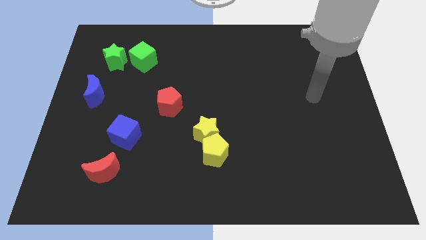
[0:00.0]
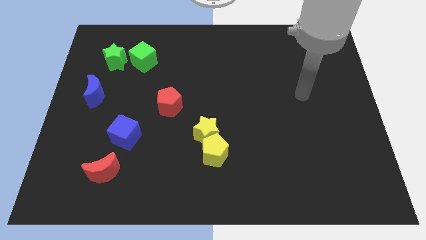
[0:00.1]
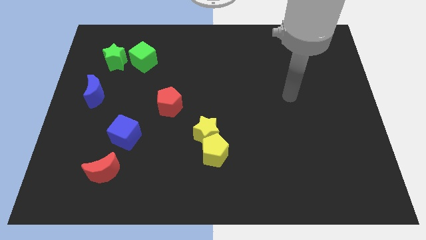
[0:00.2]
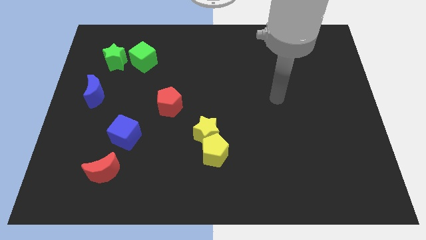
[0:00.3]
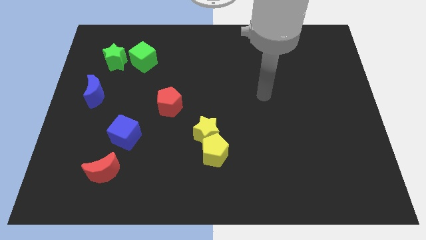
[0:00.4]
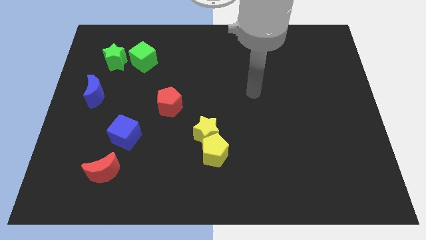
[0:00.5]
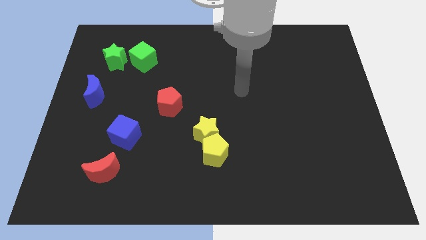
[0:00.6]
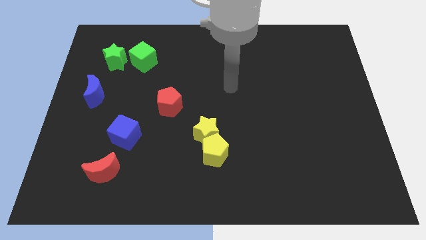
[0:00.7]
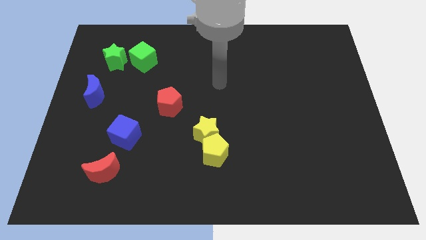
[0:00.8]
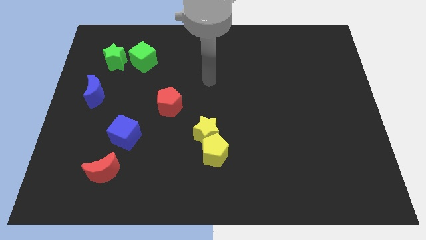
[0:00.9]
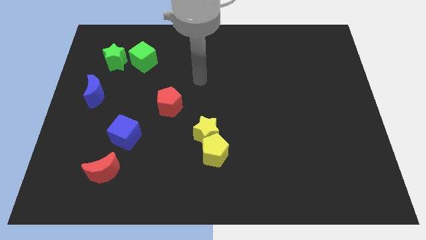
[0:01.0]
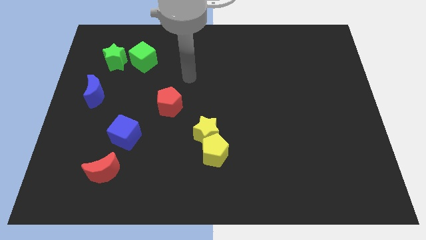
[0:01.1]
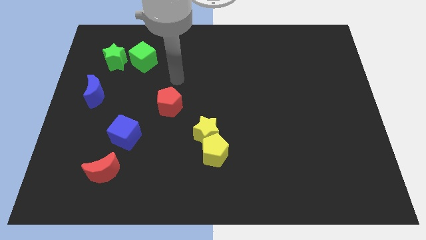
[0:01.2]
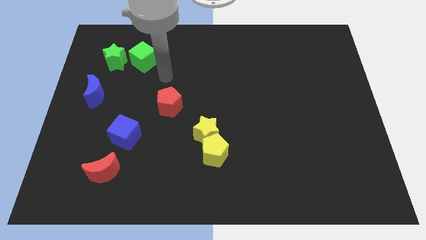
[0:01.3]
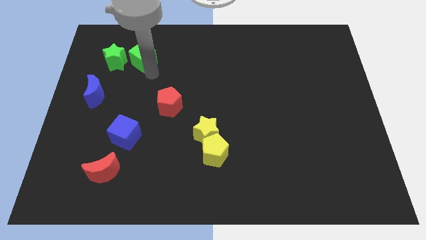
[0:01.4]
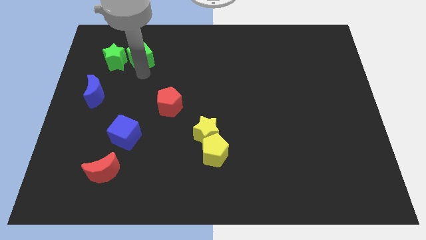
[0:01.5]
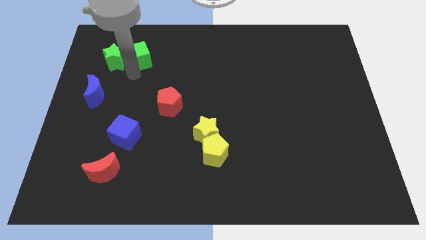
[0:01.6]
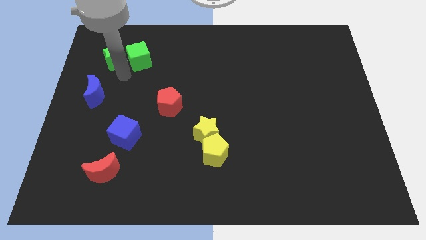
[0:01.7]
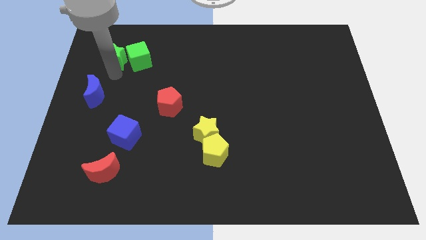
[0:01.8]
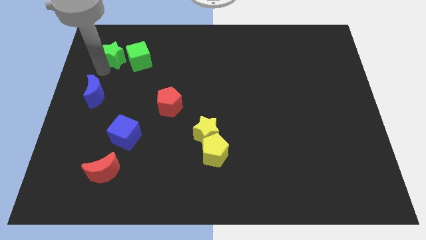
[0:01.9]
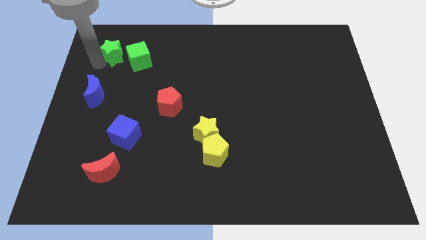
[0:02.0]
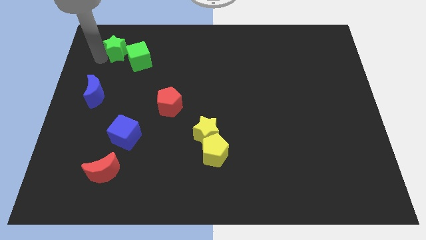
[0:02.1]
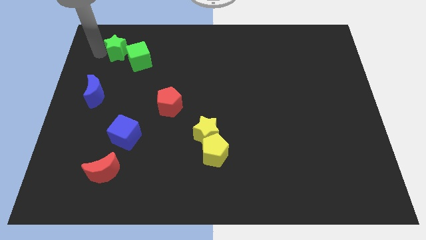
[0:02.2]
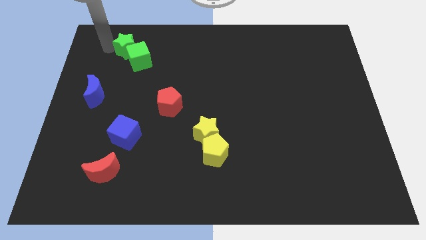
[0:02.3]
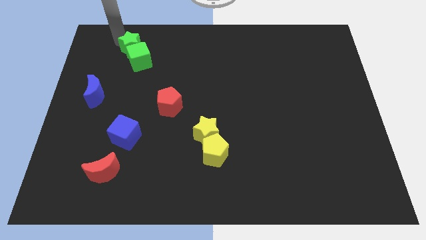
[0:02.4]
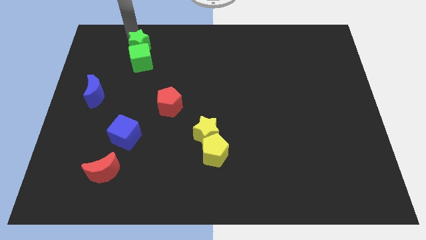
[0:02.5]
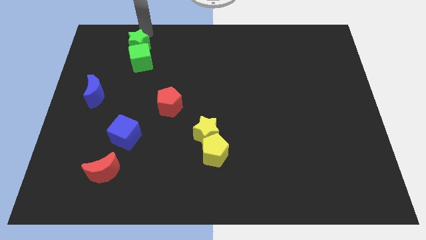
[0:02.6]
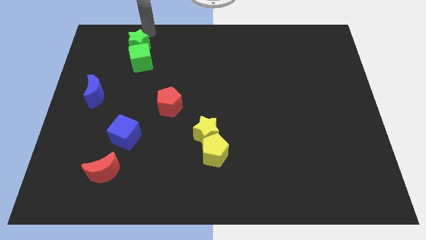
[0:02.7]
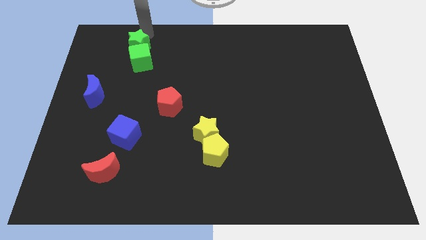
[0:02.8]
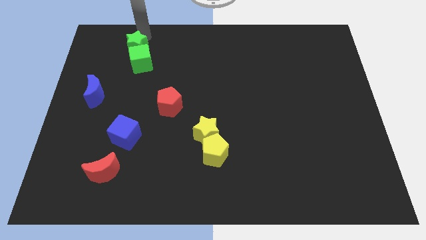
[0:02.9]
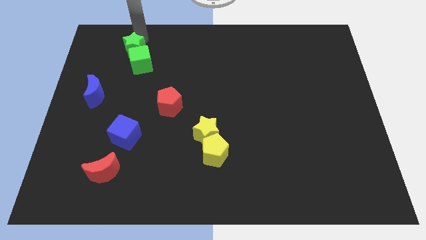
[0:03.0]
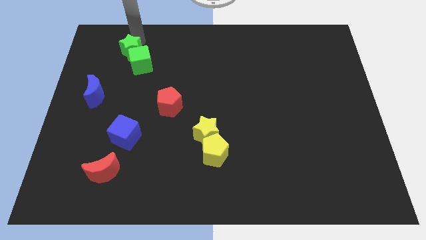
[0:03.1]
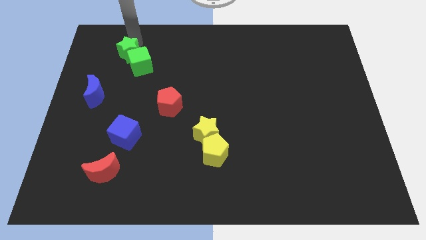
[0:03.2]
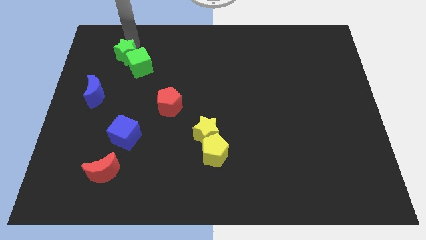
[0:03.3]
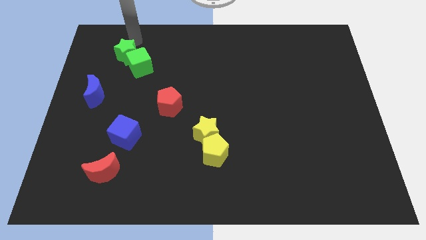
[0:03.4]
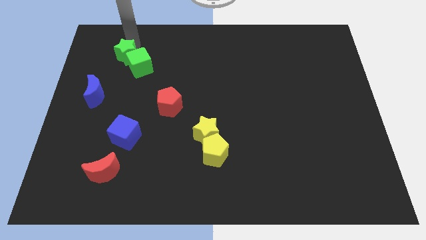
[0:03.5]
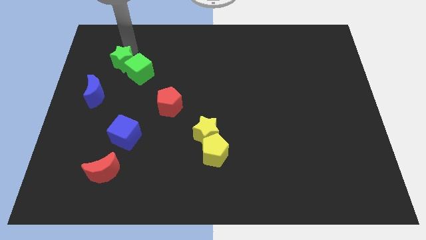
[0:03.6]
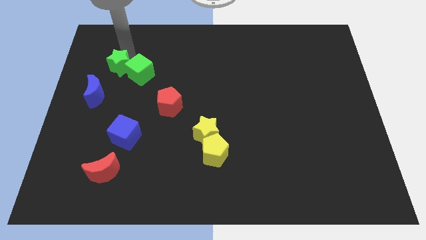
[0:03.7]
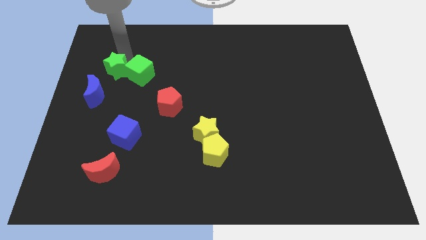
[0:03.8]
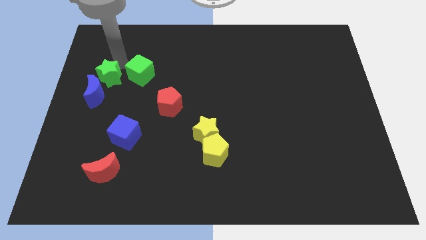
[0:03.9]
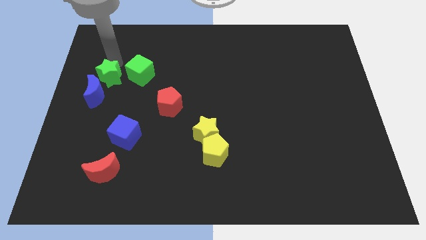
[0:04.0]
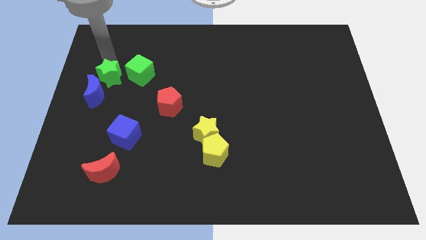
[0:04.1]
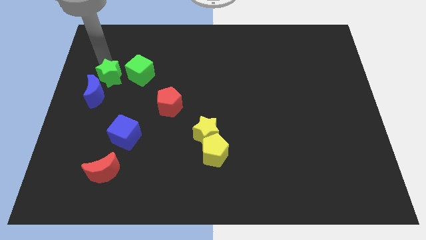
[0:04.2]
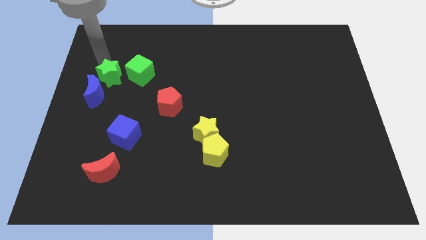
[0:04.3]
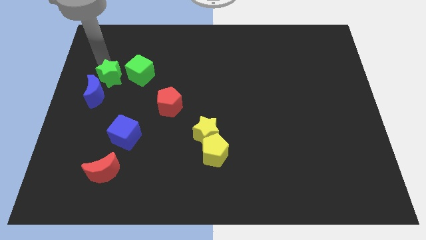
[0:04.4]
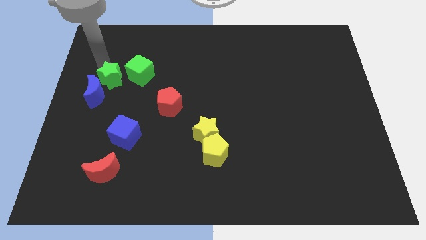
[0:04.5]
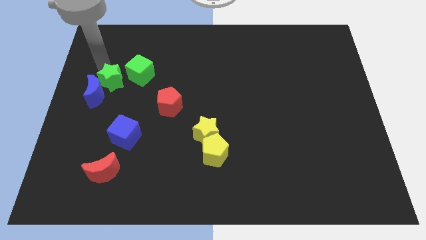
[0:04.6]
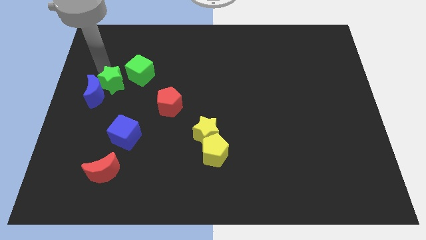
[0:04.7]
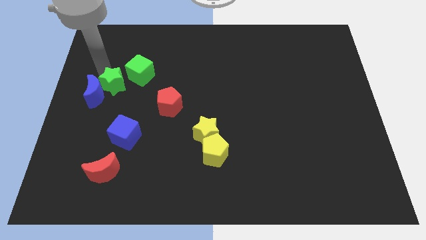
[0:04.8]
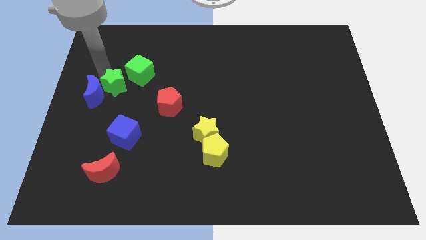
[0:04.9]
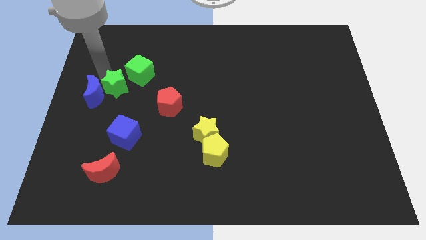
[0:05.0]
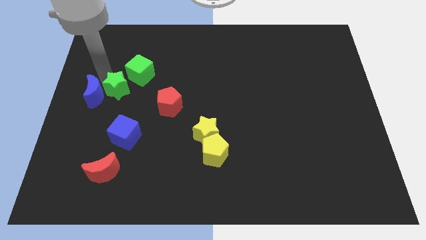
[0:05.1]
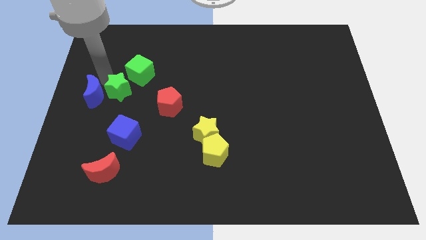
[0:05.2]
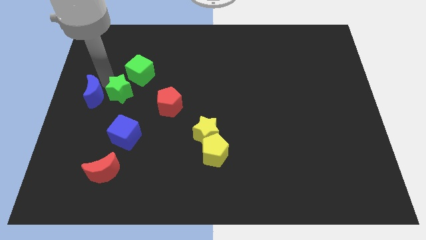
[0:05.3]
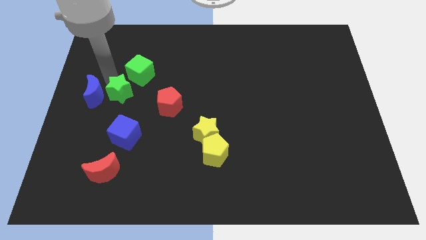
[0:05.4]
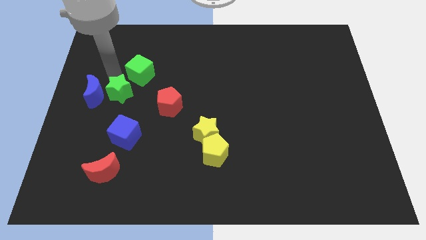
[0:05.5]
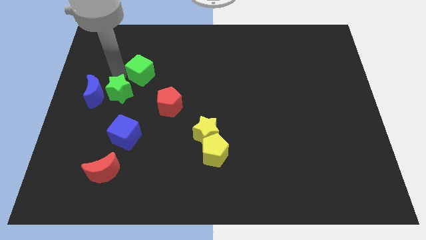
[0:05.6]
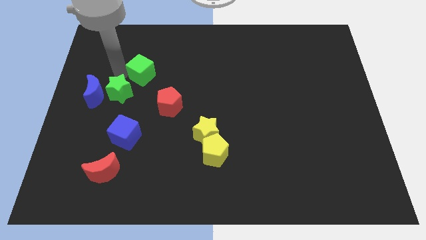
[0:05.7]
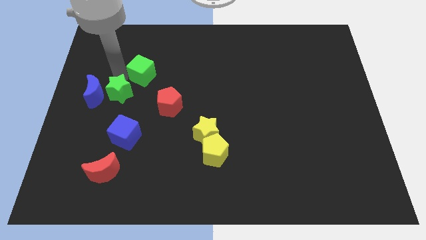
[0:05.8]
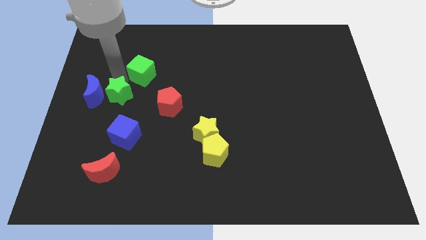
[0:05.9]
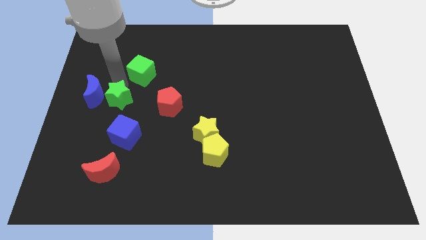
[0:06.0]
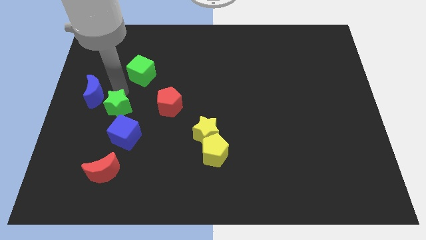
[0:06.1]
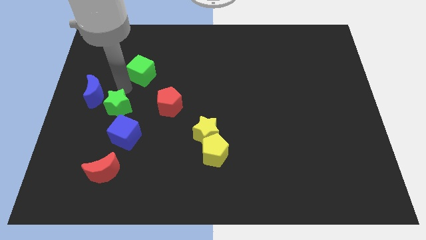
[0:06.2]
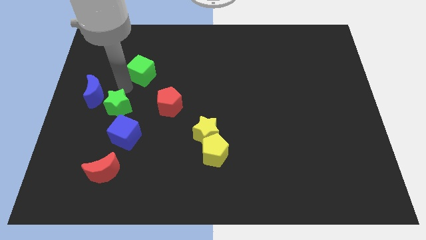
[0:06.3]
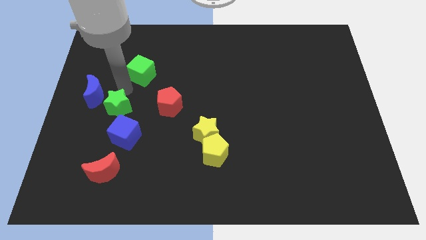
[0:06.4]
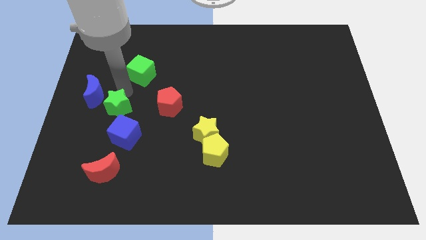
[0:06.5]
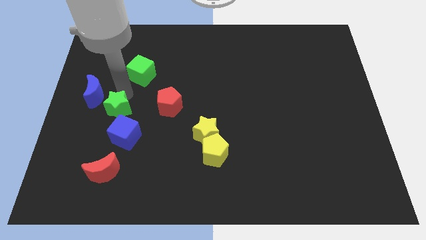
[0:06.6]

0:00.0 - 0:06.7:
move the green star to the top side of the red moon
